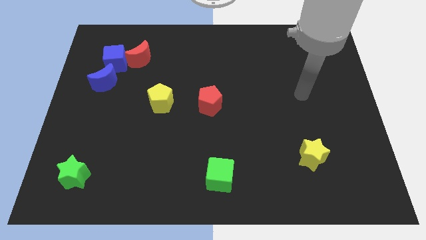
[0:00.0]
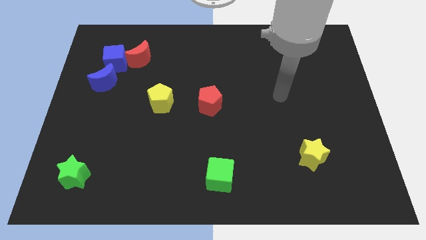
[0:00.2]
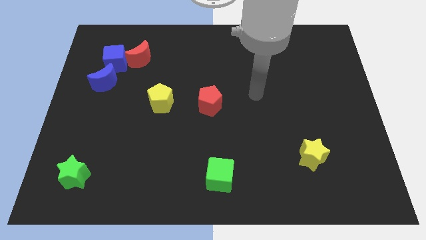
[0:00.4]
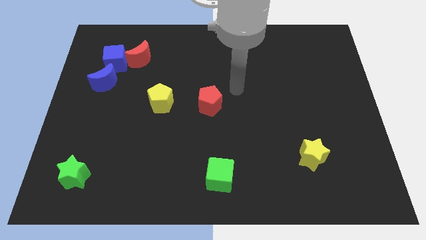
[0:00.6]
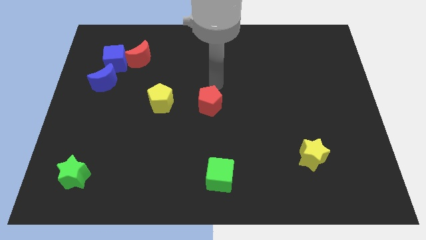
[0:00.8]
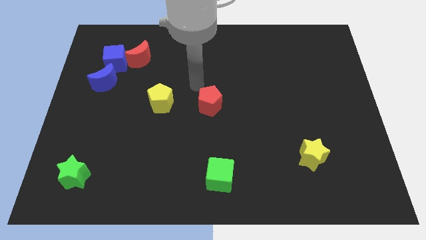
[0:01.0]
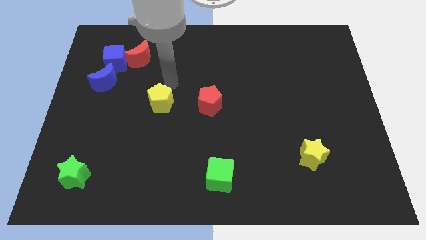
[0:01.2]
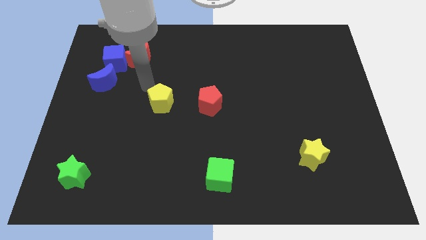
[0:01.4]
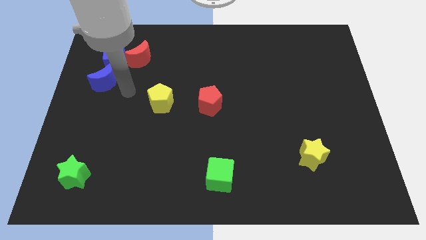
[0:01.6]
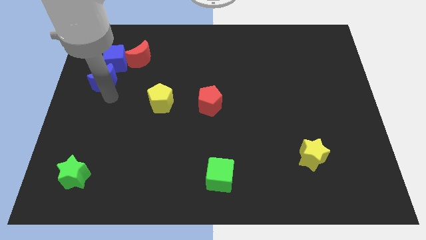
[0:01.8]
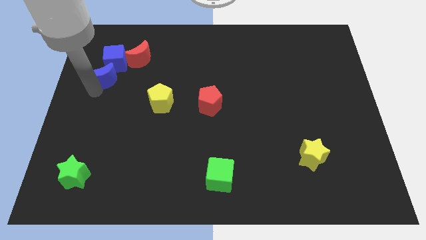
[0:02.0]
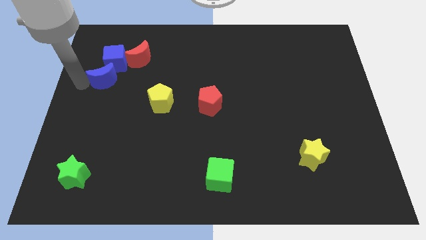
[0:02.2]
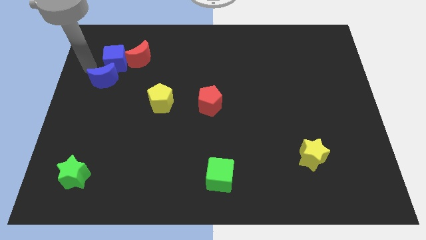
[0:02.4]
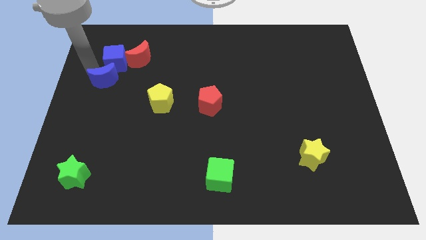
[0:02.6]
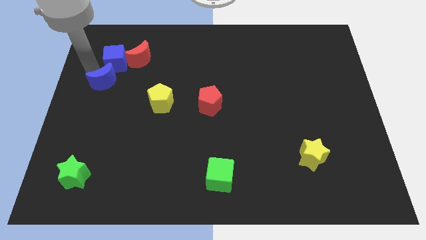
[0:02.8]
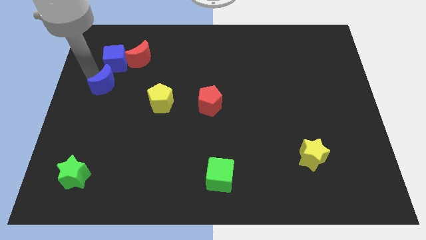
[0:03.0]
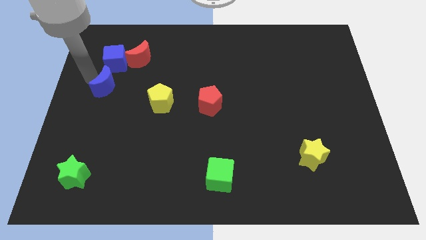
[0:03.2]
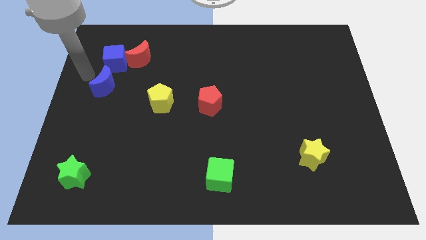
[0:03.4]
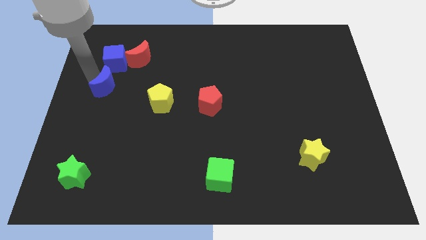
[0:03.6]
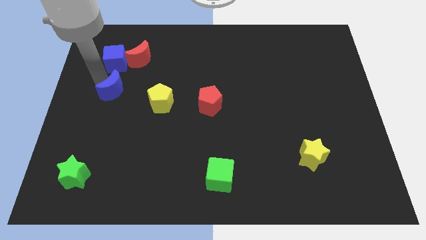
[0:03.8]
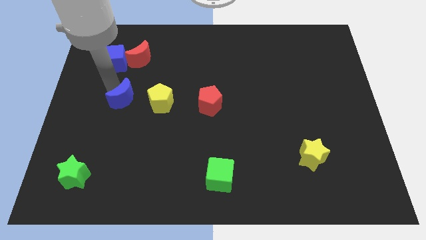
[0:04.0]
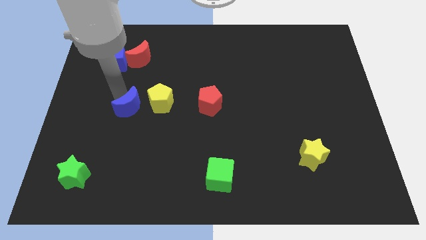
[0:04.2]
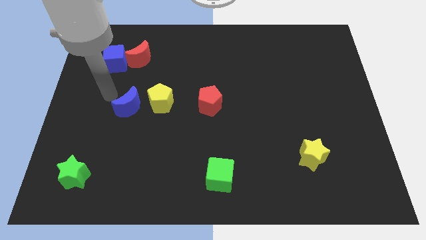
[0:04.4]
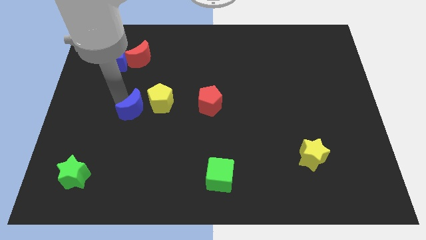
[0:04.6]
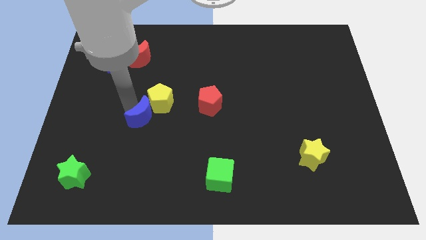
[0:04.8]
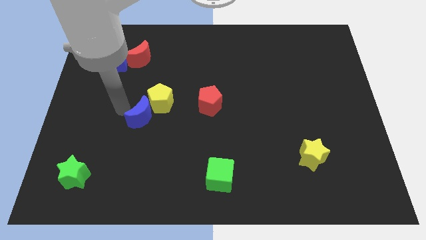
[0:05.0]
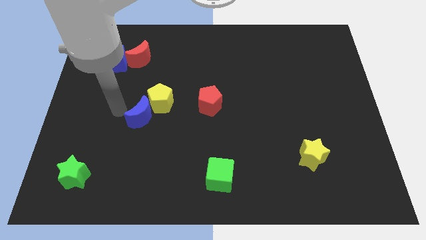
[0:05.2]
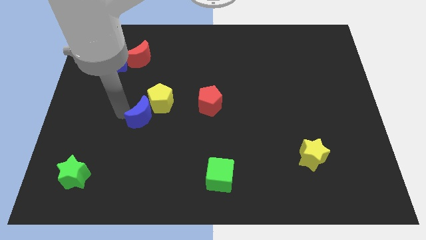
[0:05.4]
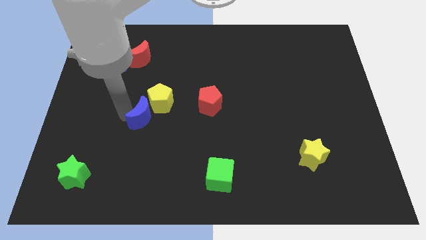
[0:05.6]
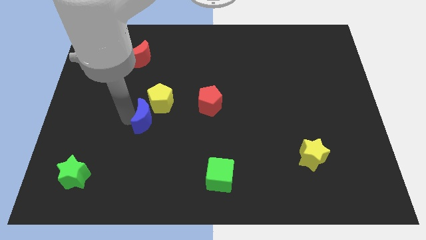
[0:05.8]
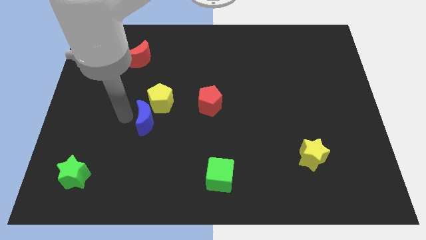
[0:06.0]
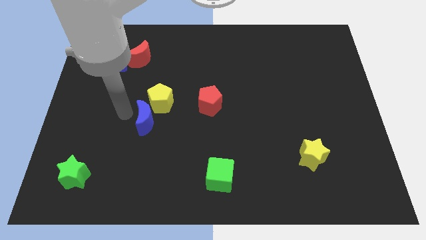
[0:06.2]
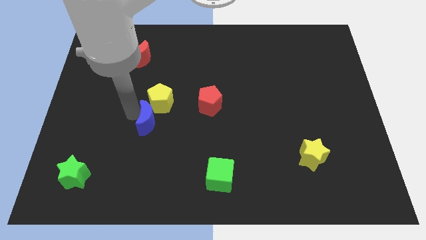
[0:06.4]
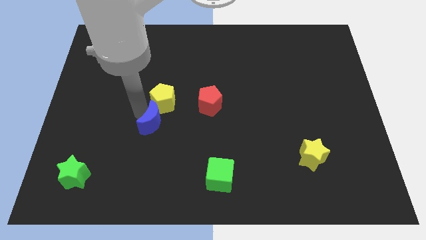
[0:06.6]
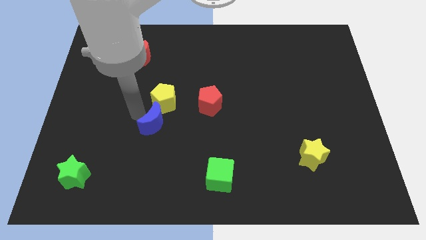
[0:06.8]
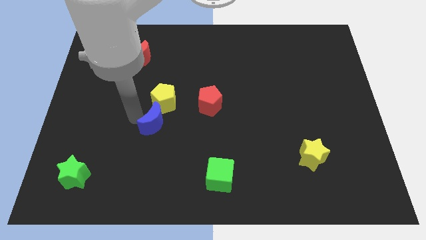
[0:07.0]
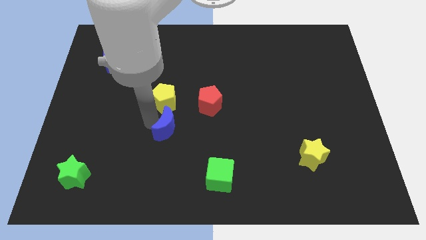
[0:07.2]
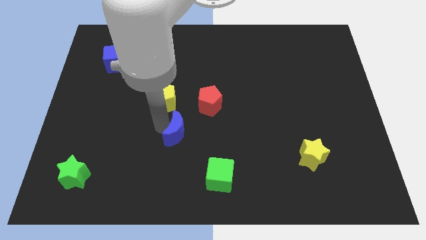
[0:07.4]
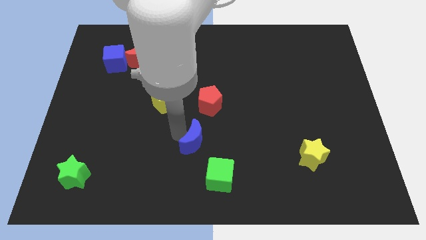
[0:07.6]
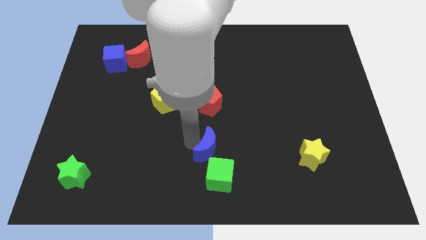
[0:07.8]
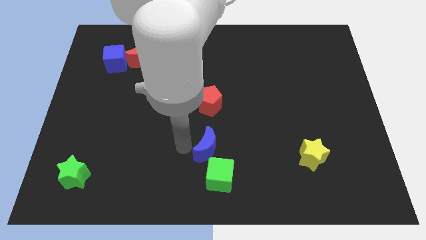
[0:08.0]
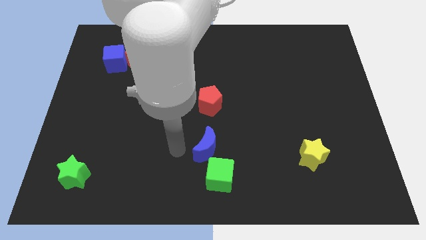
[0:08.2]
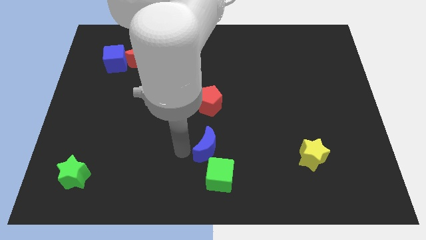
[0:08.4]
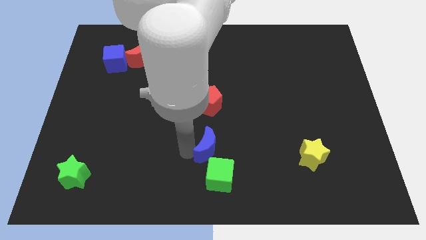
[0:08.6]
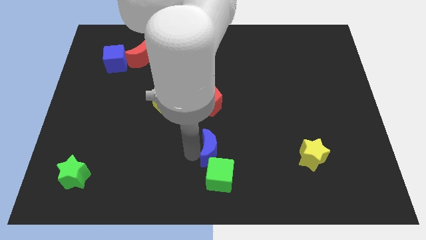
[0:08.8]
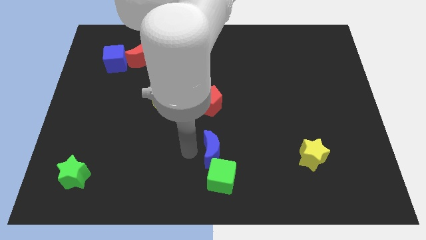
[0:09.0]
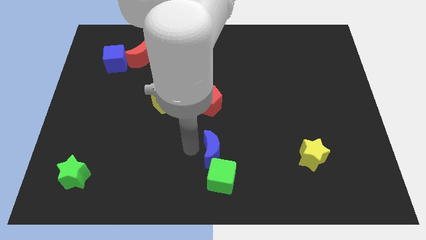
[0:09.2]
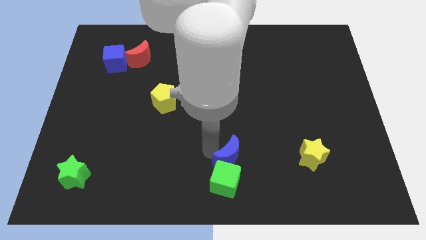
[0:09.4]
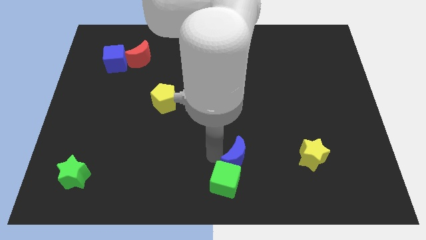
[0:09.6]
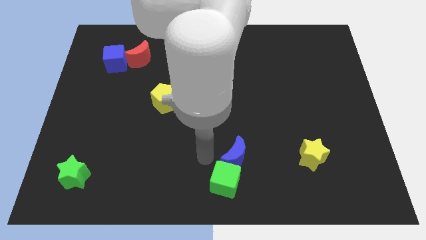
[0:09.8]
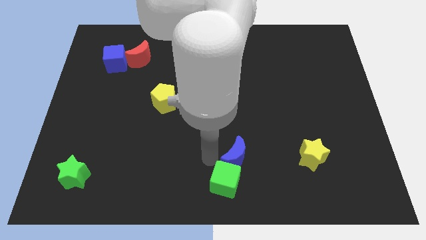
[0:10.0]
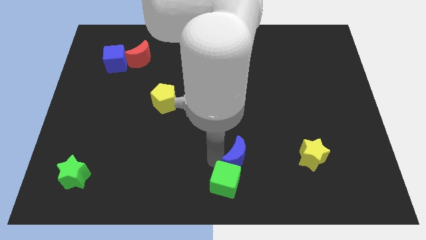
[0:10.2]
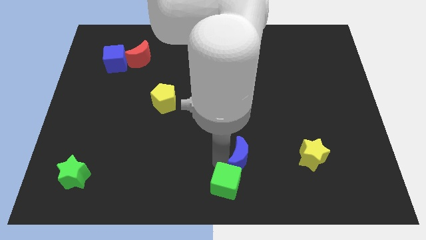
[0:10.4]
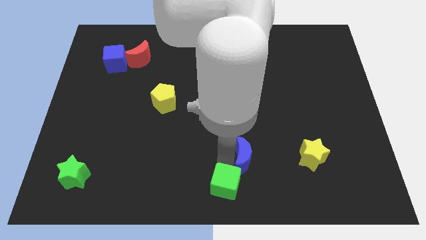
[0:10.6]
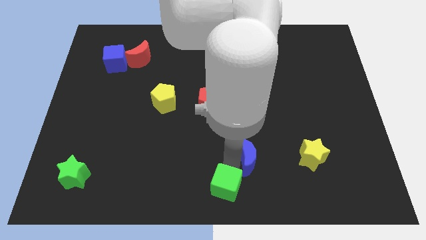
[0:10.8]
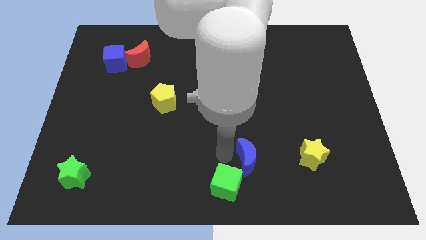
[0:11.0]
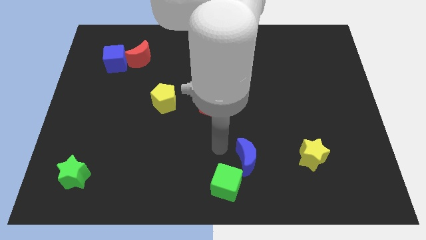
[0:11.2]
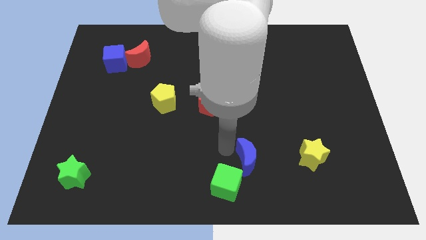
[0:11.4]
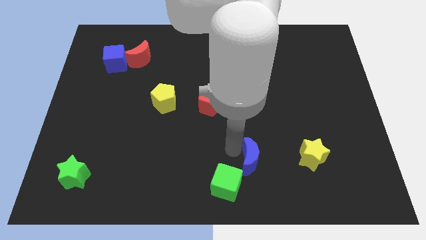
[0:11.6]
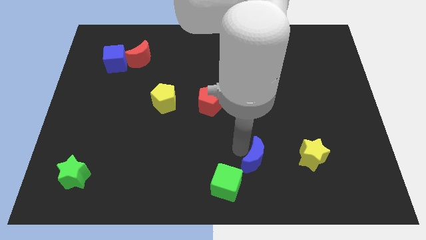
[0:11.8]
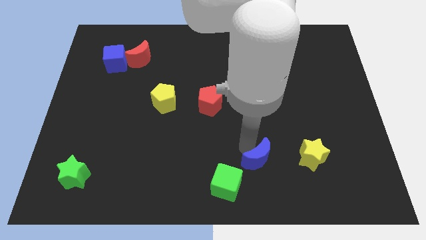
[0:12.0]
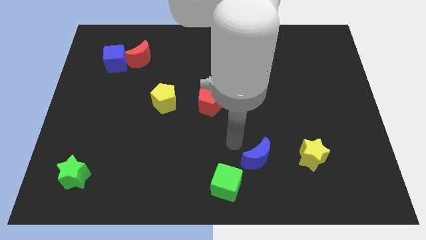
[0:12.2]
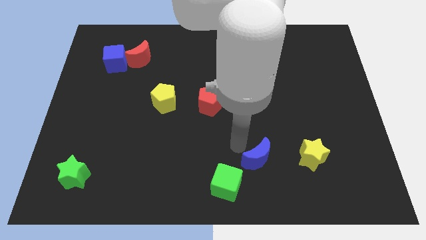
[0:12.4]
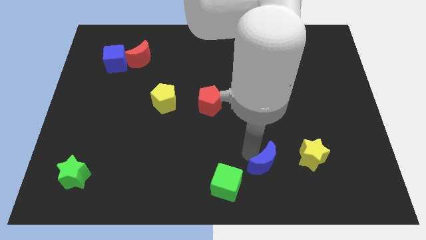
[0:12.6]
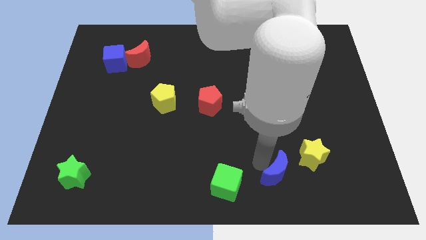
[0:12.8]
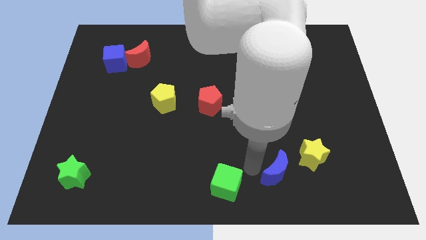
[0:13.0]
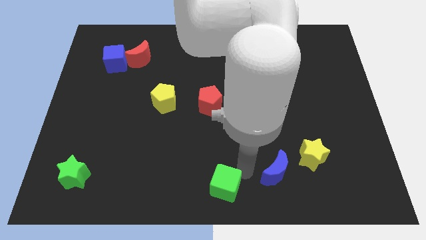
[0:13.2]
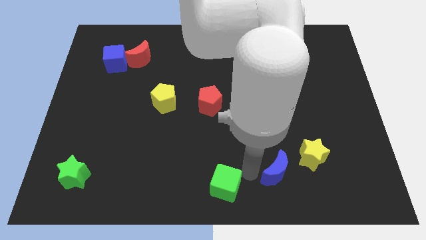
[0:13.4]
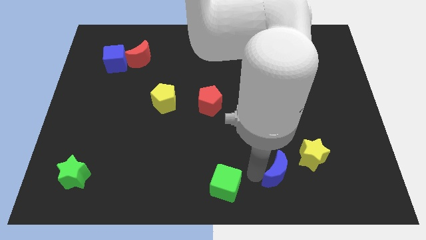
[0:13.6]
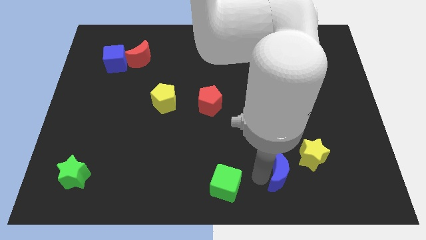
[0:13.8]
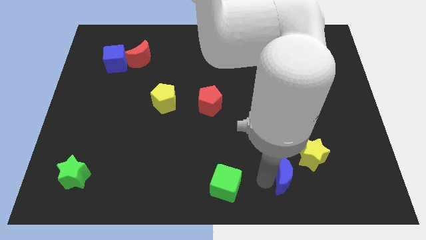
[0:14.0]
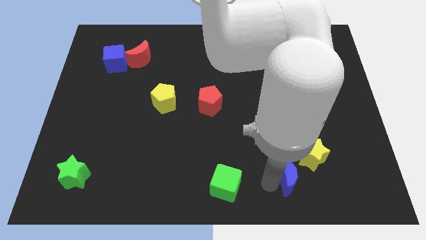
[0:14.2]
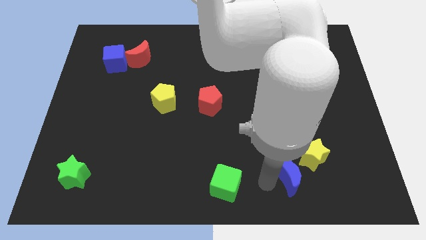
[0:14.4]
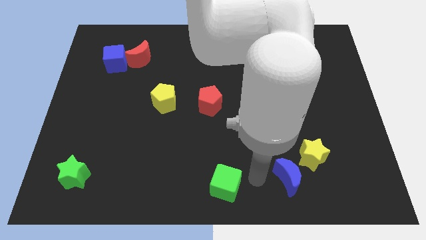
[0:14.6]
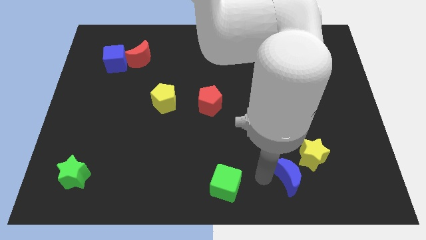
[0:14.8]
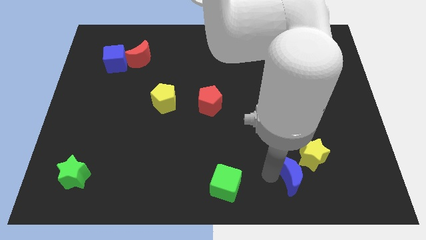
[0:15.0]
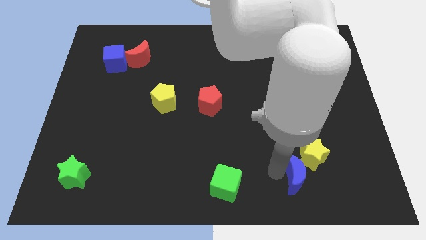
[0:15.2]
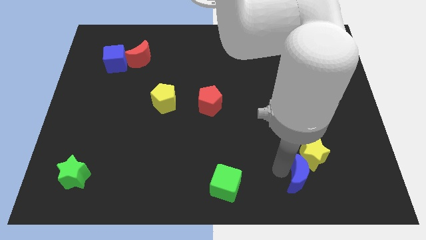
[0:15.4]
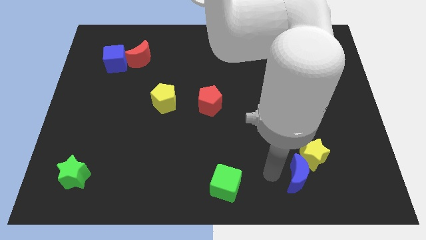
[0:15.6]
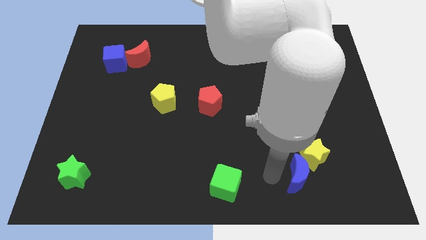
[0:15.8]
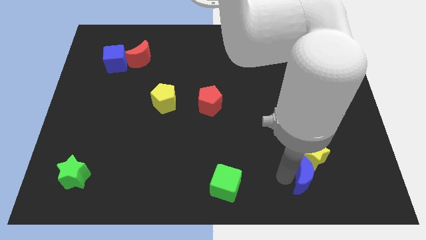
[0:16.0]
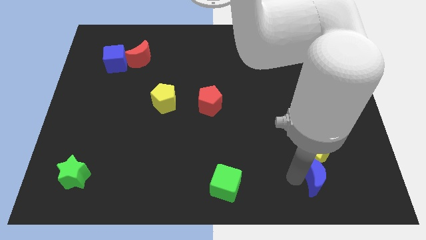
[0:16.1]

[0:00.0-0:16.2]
put the blue moon to the bottom right side of the yellow star
